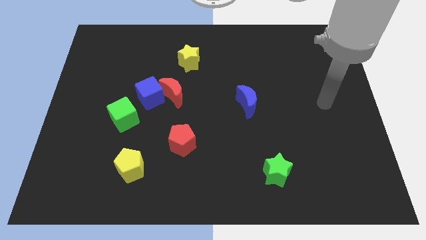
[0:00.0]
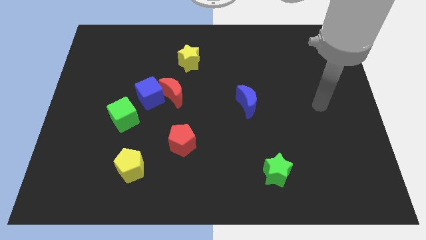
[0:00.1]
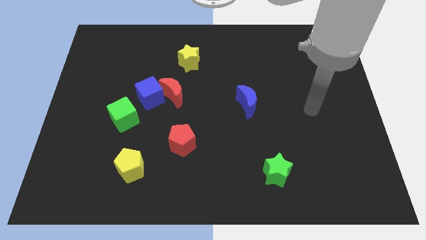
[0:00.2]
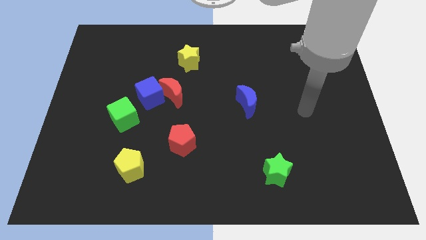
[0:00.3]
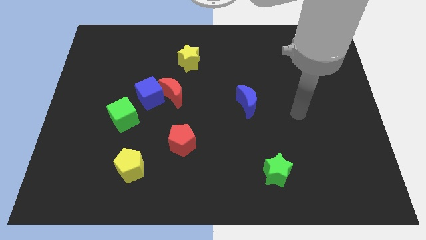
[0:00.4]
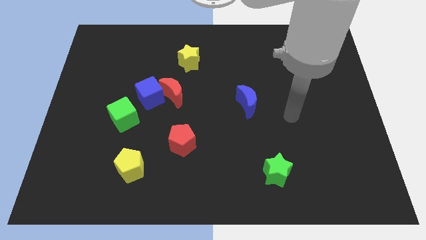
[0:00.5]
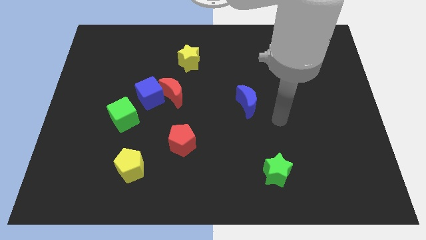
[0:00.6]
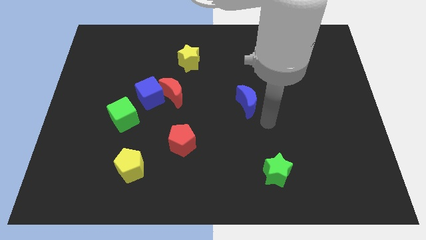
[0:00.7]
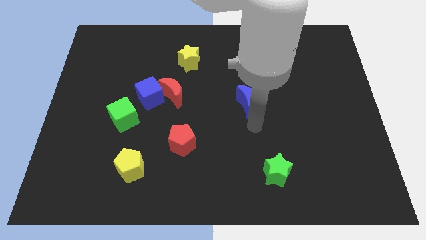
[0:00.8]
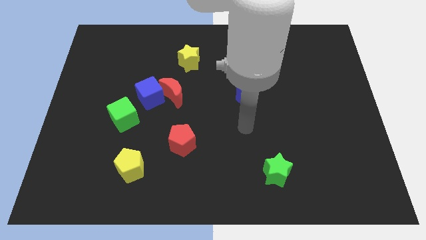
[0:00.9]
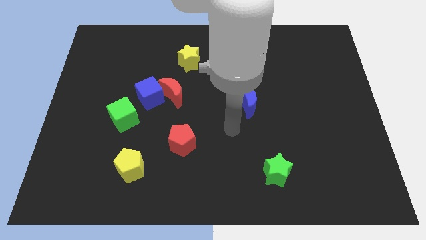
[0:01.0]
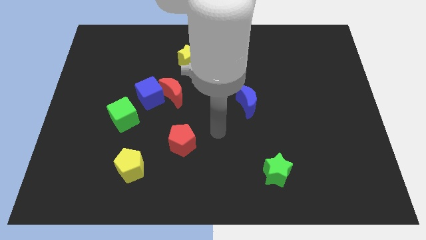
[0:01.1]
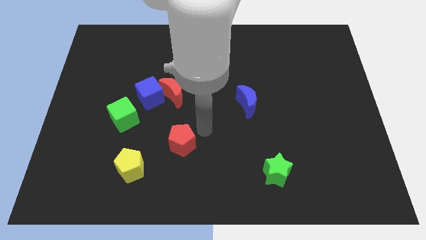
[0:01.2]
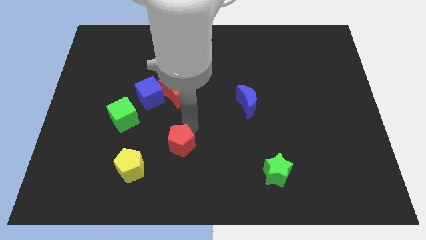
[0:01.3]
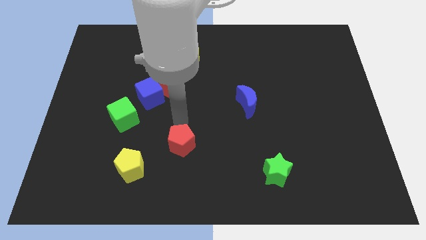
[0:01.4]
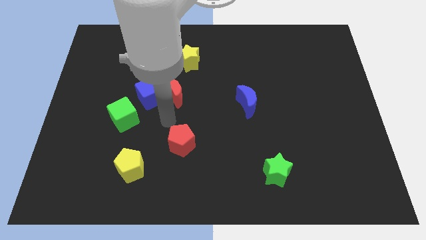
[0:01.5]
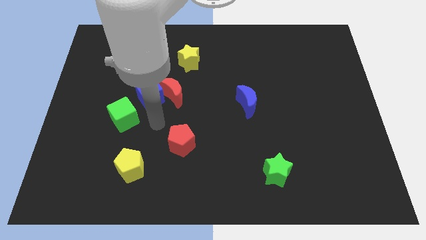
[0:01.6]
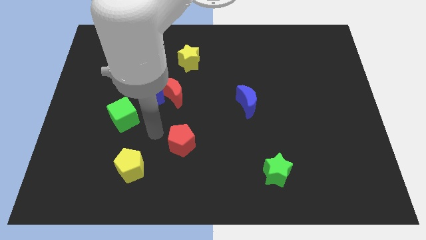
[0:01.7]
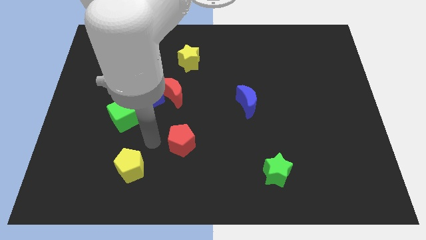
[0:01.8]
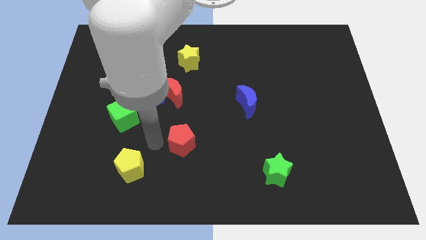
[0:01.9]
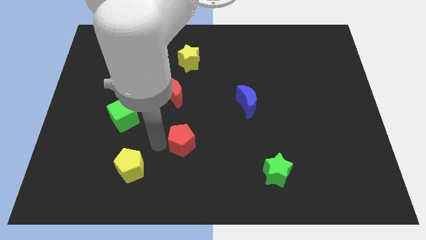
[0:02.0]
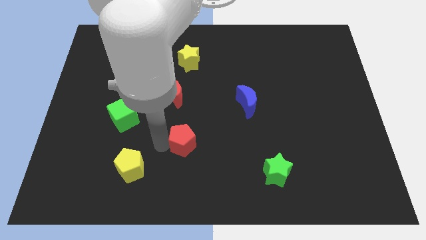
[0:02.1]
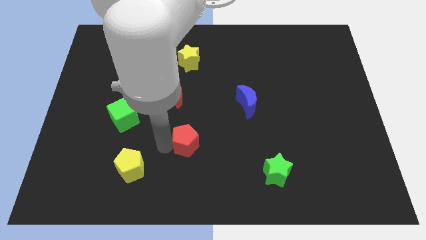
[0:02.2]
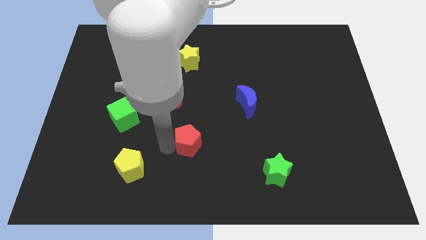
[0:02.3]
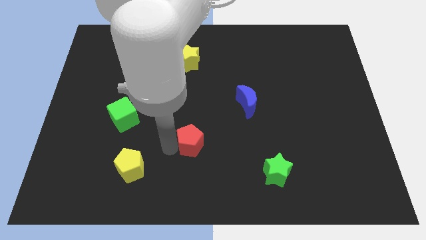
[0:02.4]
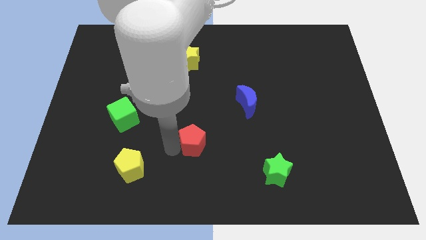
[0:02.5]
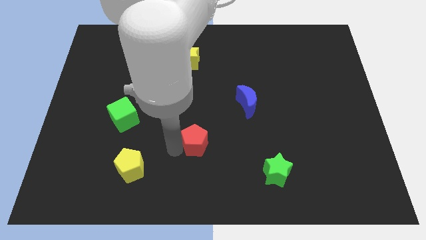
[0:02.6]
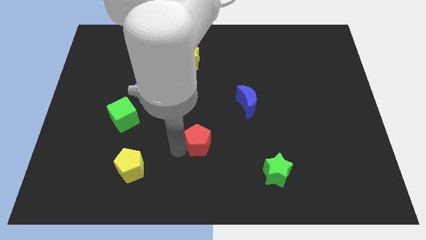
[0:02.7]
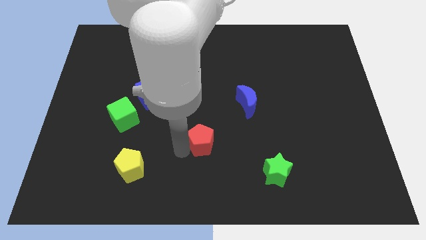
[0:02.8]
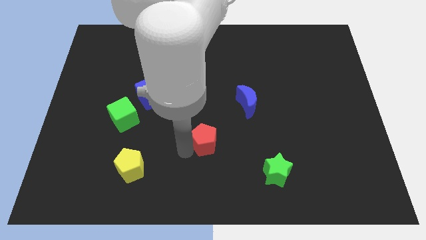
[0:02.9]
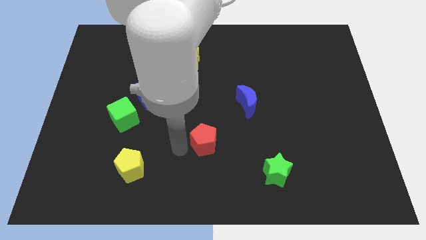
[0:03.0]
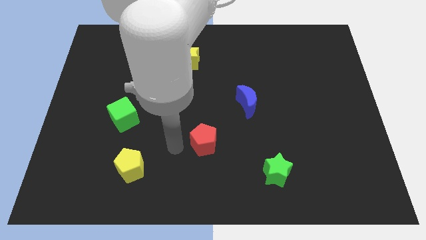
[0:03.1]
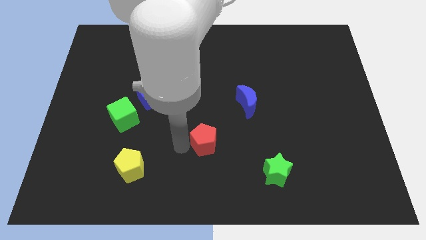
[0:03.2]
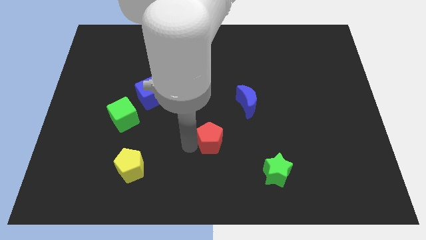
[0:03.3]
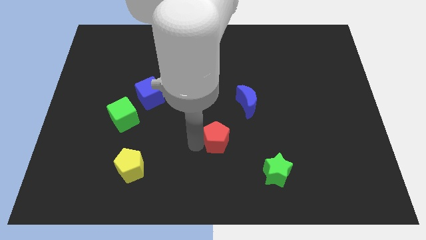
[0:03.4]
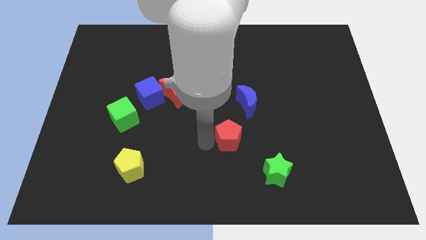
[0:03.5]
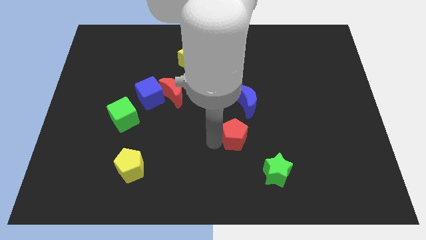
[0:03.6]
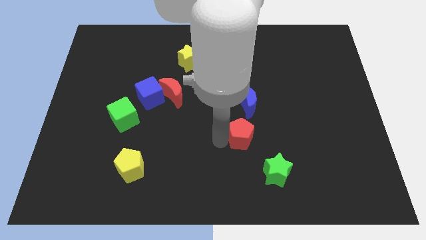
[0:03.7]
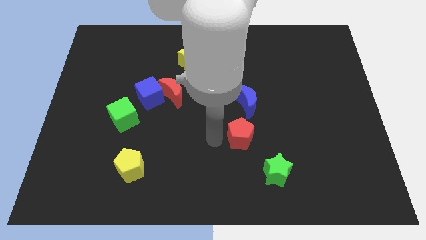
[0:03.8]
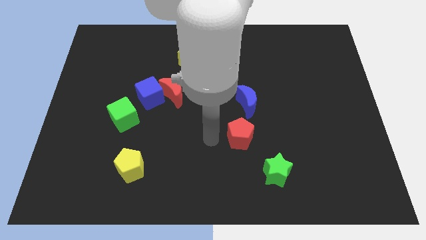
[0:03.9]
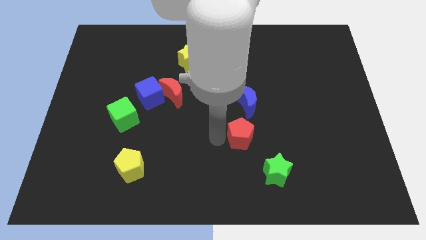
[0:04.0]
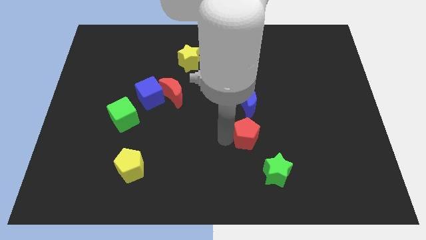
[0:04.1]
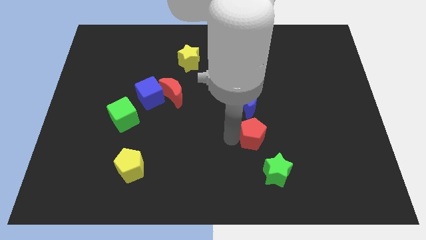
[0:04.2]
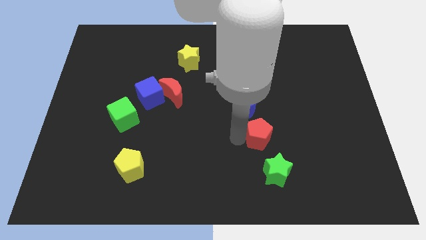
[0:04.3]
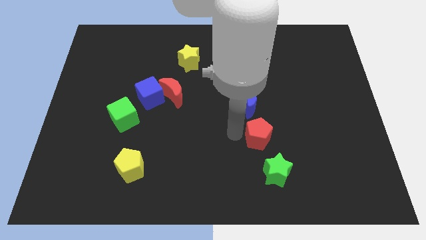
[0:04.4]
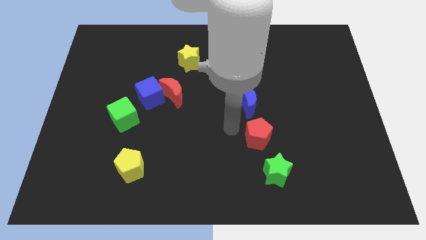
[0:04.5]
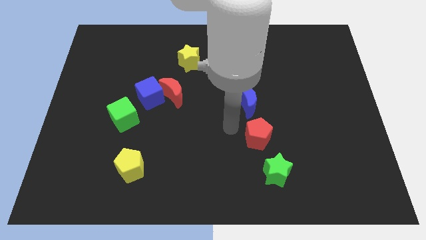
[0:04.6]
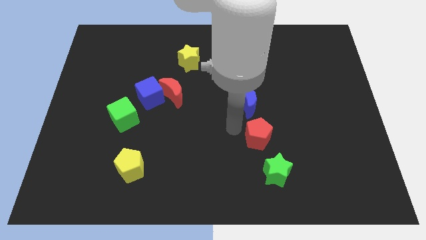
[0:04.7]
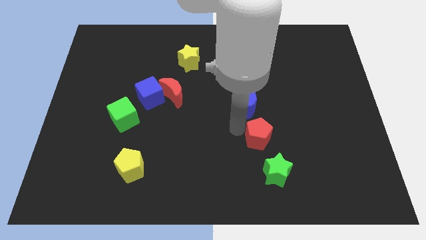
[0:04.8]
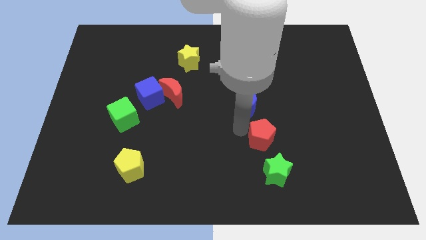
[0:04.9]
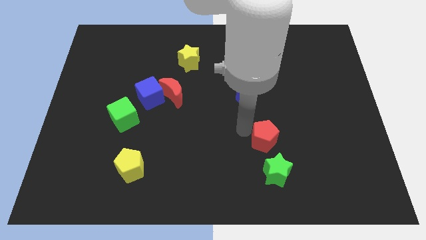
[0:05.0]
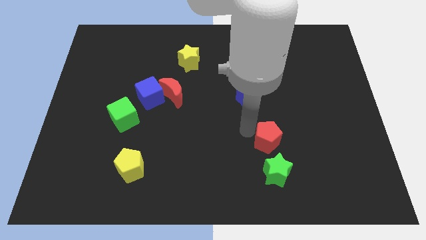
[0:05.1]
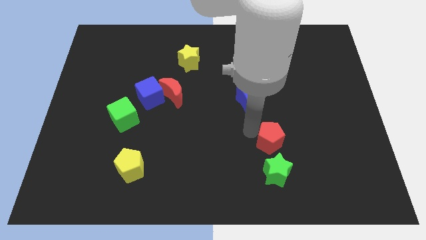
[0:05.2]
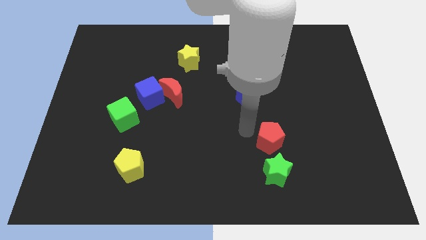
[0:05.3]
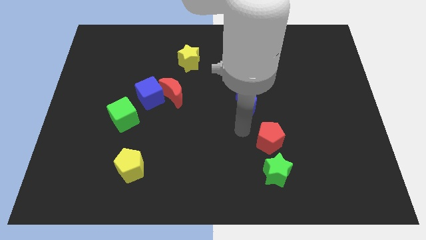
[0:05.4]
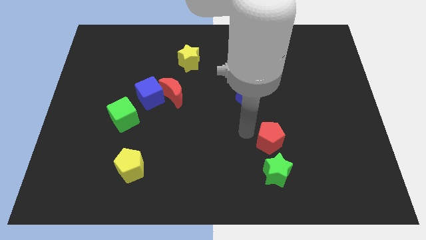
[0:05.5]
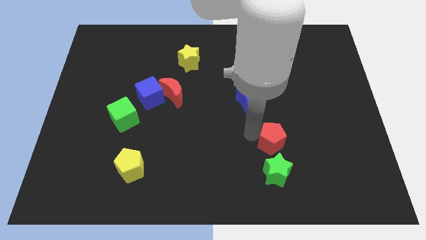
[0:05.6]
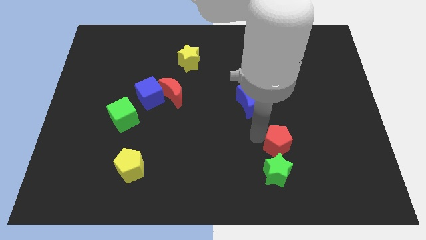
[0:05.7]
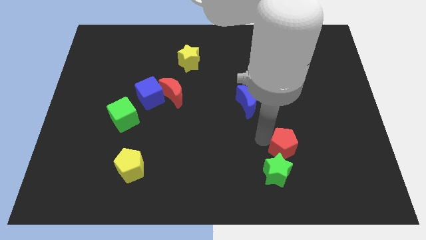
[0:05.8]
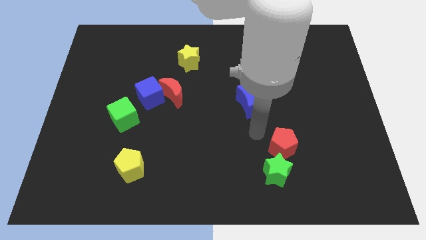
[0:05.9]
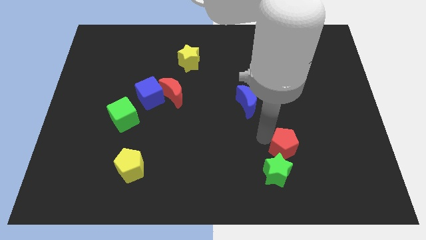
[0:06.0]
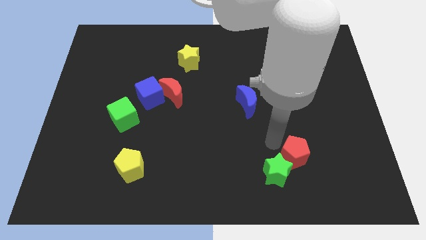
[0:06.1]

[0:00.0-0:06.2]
move the red pentagon to the right of the green star

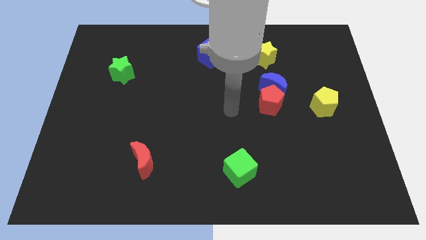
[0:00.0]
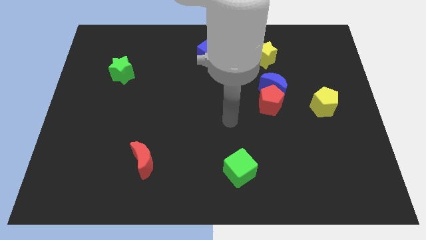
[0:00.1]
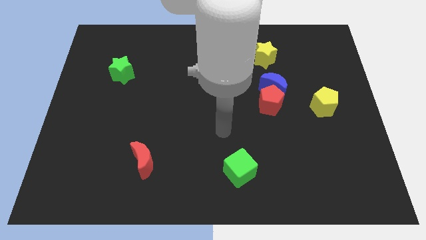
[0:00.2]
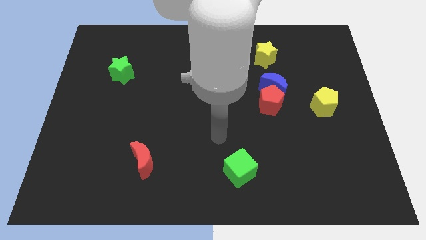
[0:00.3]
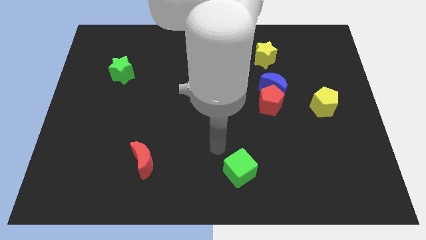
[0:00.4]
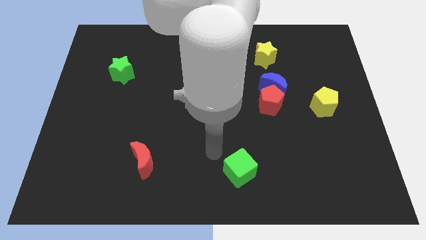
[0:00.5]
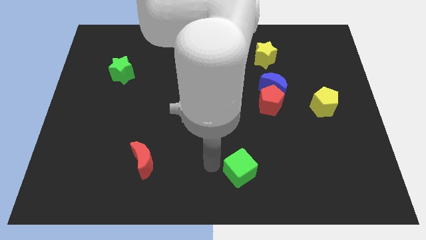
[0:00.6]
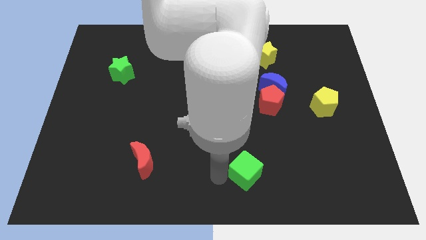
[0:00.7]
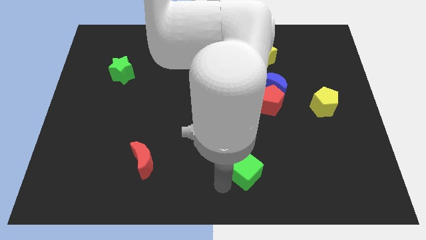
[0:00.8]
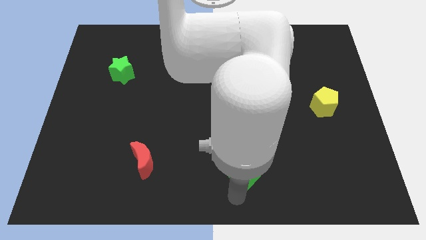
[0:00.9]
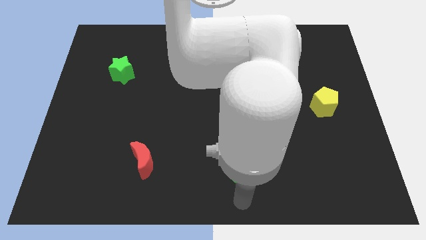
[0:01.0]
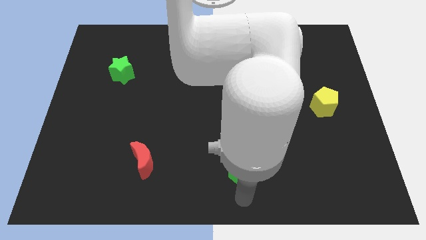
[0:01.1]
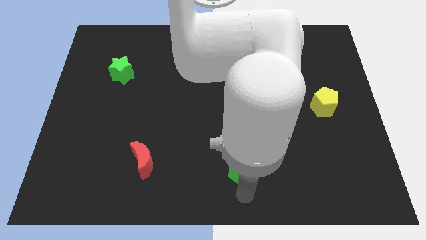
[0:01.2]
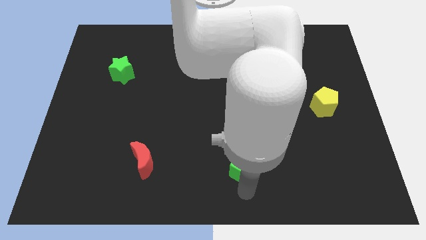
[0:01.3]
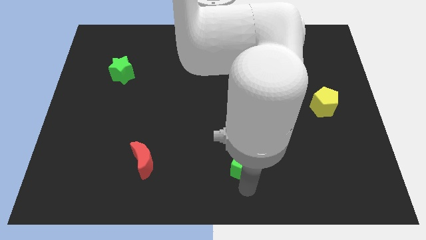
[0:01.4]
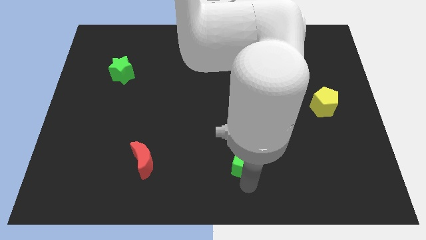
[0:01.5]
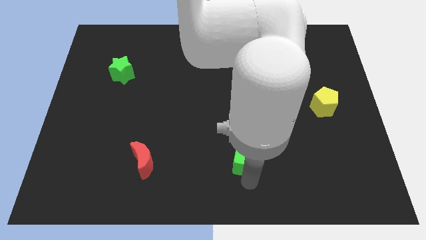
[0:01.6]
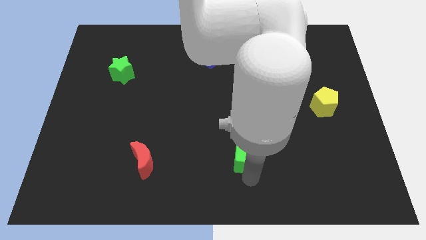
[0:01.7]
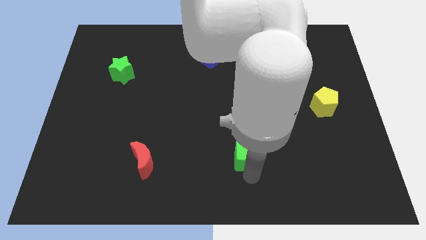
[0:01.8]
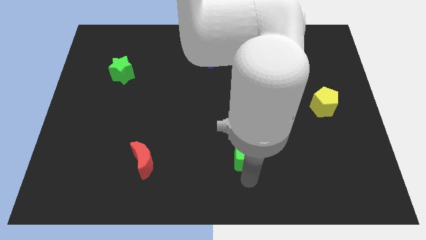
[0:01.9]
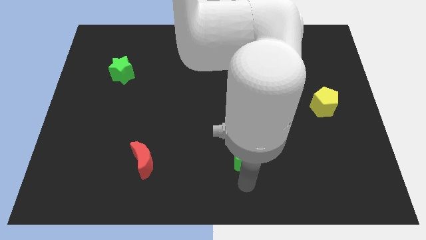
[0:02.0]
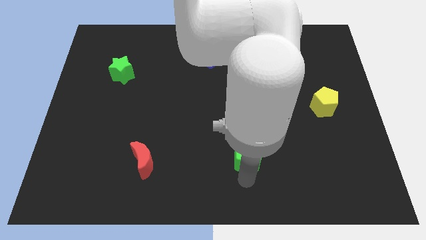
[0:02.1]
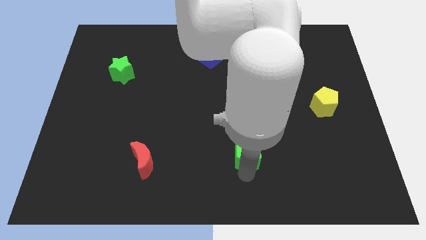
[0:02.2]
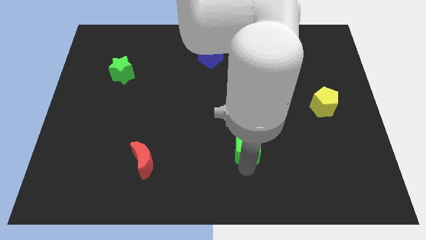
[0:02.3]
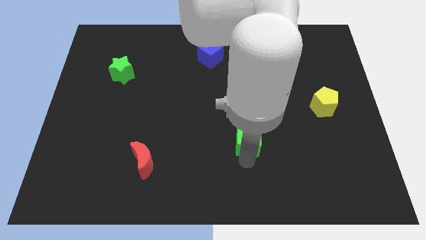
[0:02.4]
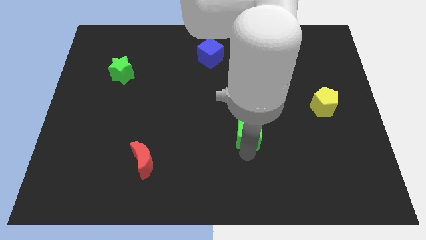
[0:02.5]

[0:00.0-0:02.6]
push the green cube to the bottom left side of the red pentagon
